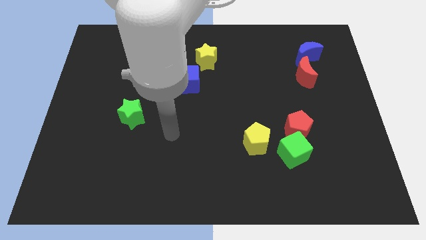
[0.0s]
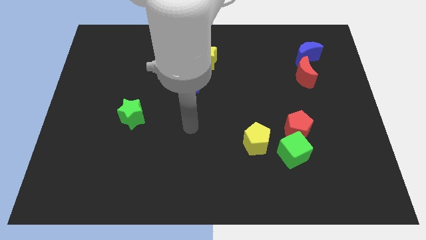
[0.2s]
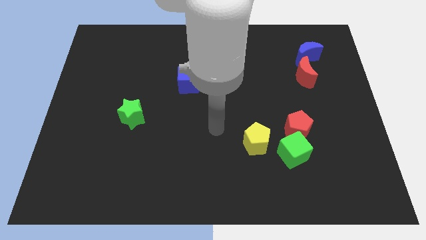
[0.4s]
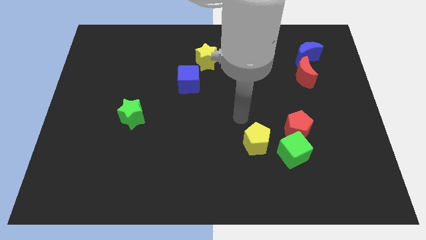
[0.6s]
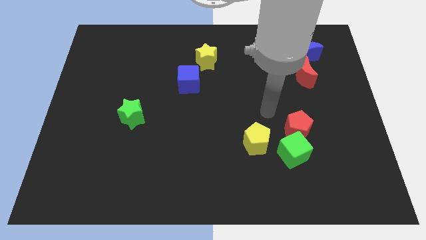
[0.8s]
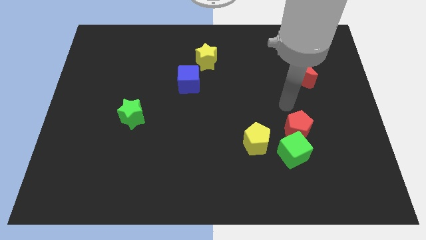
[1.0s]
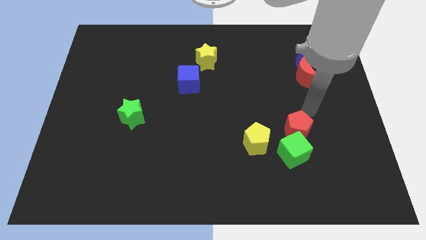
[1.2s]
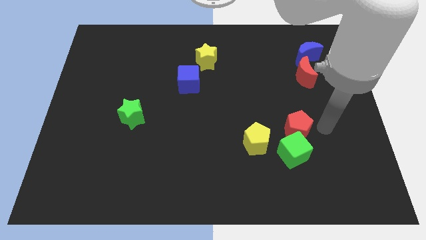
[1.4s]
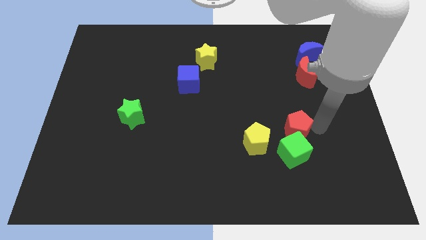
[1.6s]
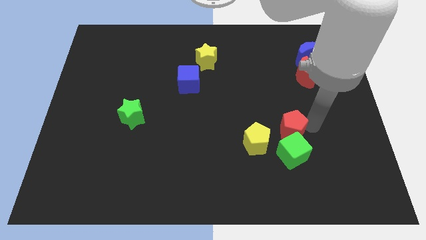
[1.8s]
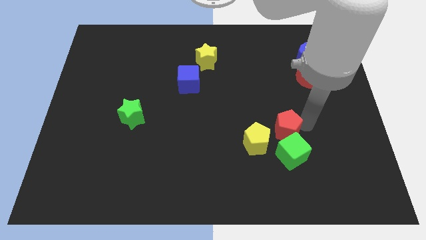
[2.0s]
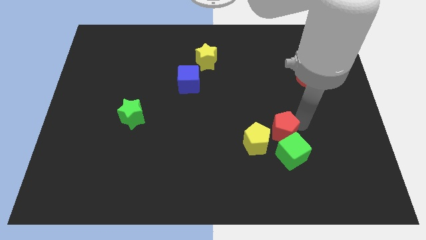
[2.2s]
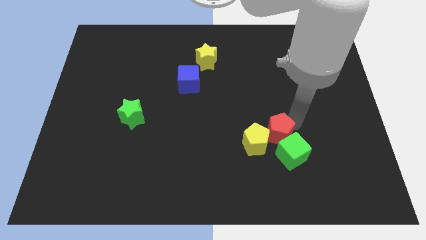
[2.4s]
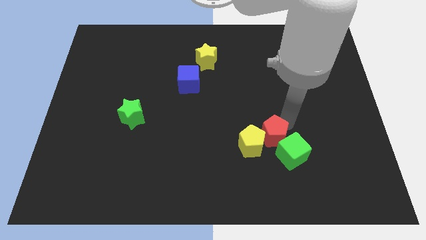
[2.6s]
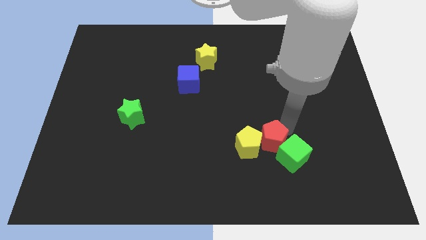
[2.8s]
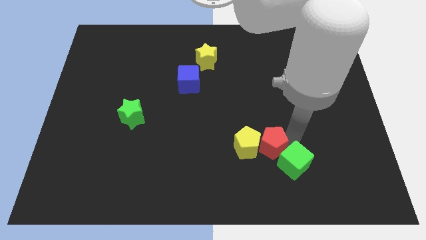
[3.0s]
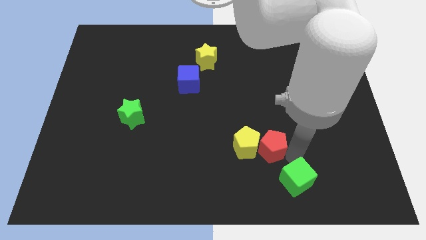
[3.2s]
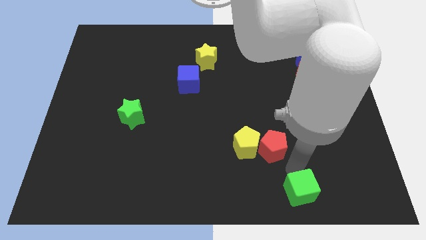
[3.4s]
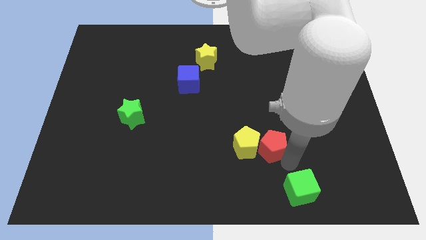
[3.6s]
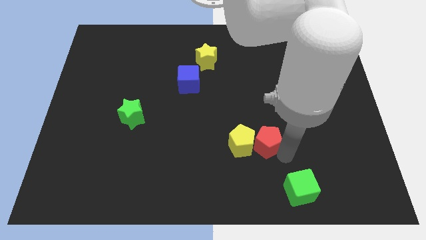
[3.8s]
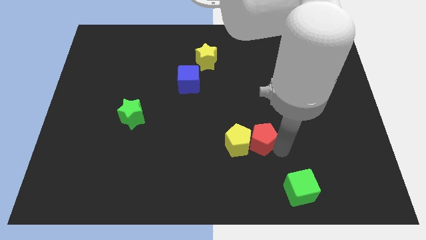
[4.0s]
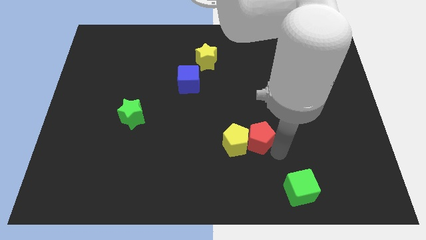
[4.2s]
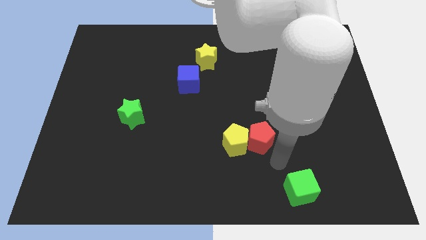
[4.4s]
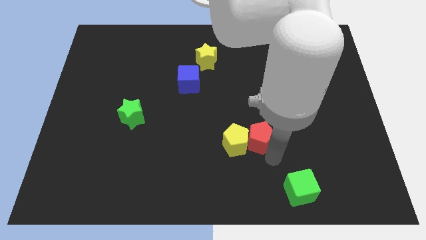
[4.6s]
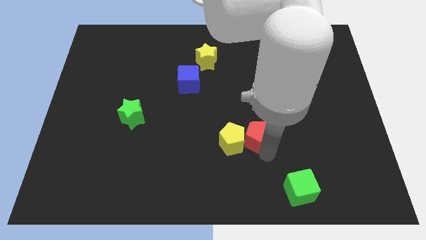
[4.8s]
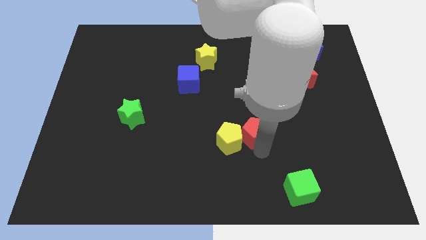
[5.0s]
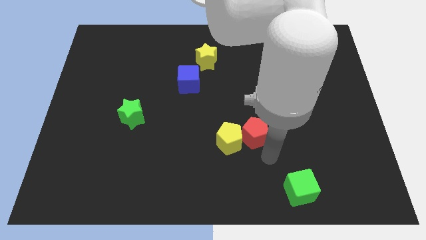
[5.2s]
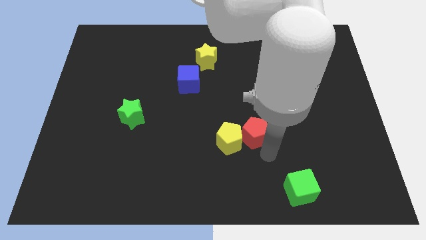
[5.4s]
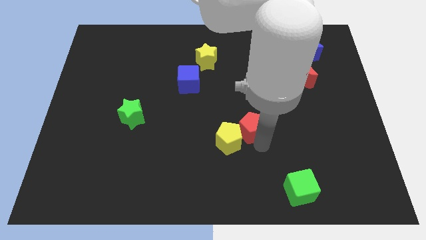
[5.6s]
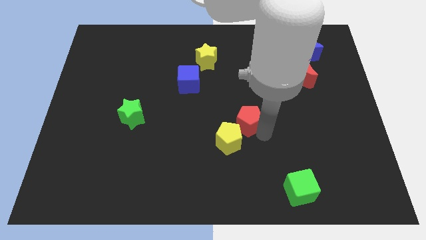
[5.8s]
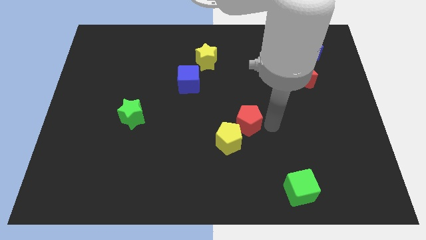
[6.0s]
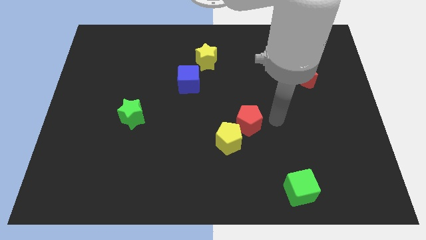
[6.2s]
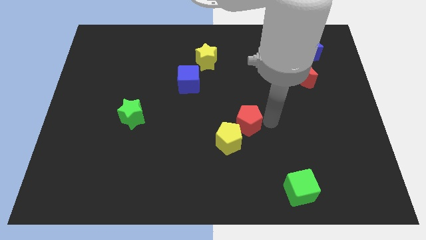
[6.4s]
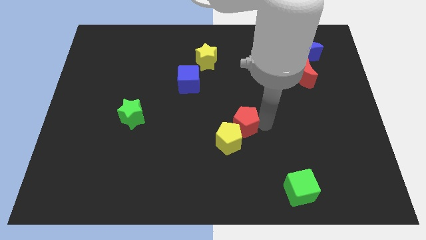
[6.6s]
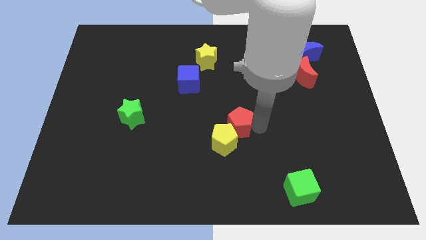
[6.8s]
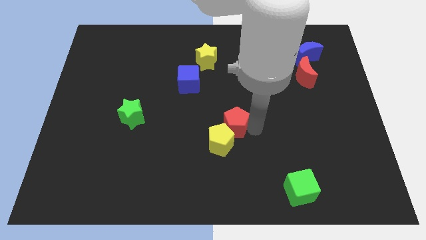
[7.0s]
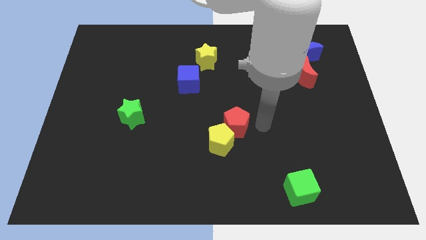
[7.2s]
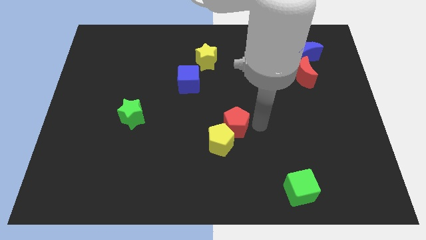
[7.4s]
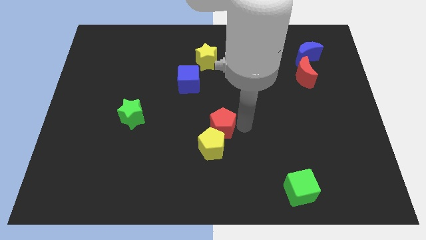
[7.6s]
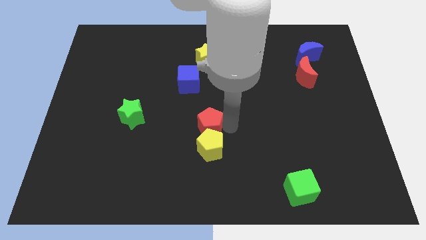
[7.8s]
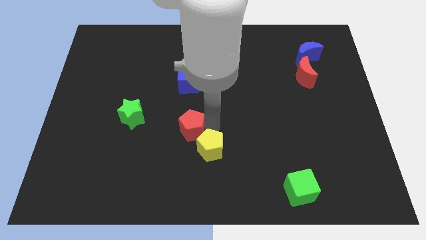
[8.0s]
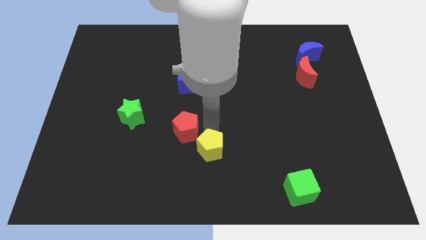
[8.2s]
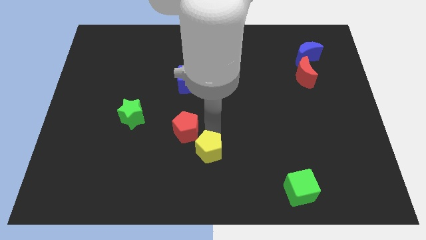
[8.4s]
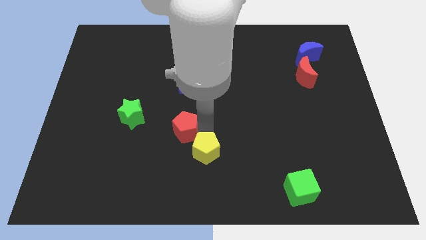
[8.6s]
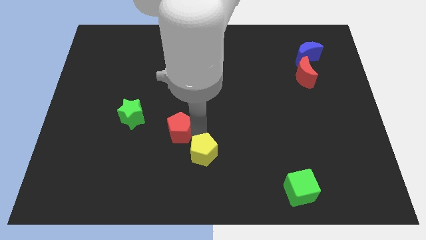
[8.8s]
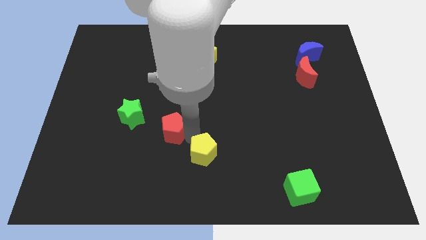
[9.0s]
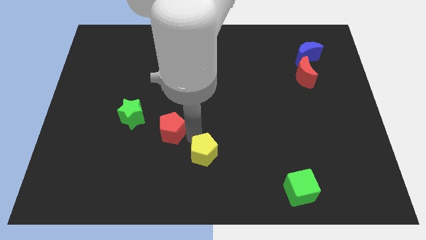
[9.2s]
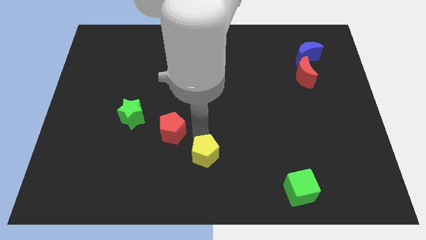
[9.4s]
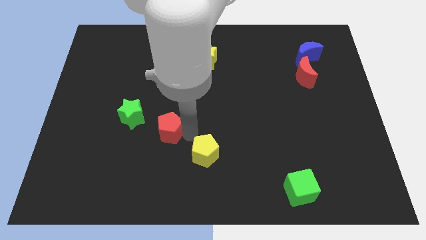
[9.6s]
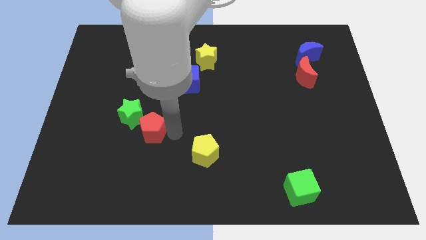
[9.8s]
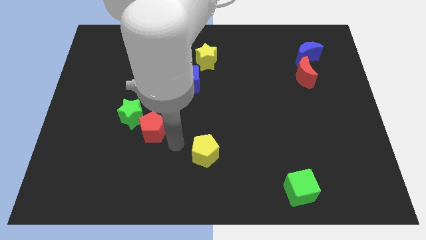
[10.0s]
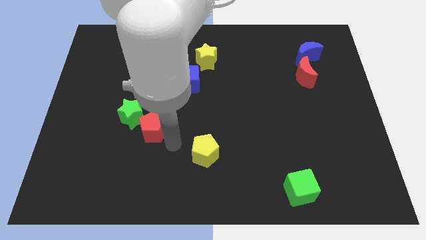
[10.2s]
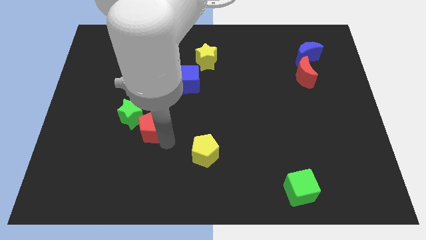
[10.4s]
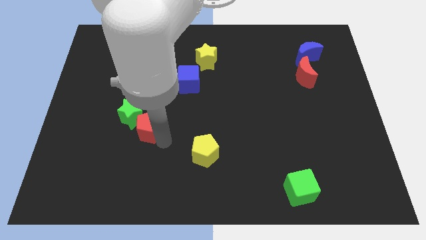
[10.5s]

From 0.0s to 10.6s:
move the red pentagon to the green star

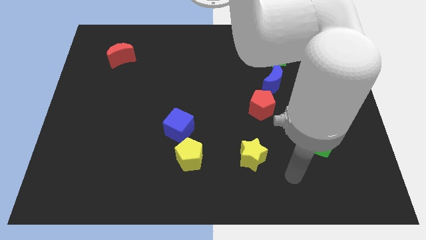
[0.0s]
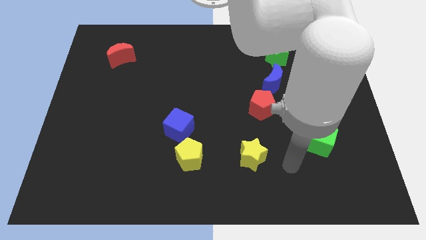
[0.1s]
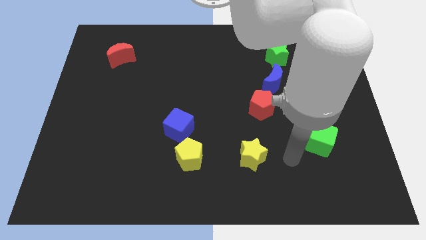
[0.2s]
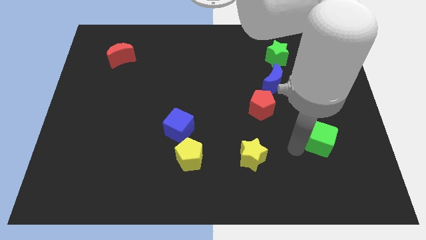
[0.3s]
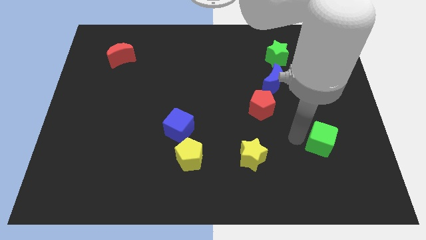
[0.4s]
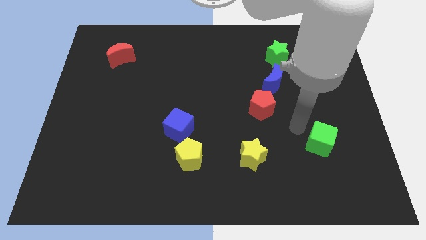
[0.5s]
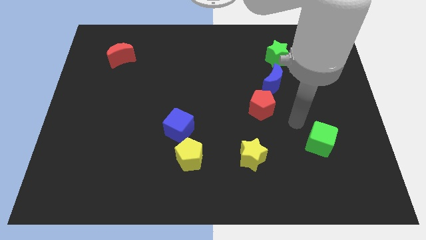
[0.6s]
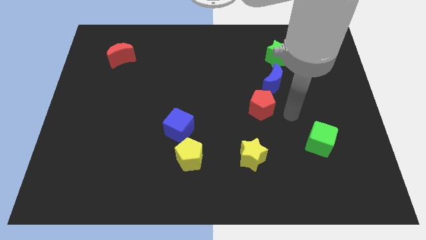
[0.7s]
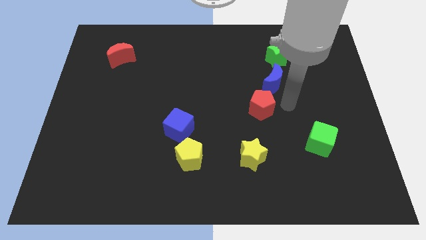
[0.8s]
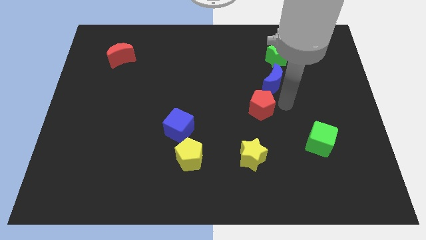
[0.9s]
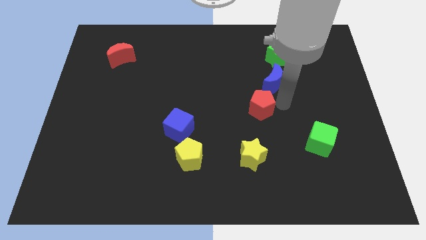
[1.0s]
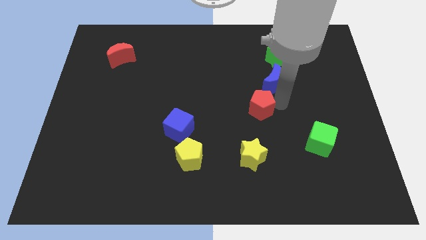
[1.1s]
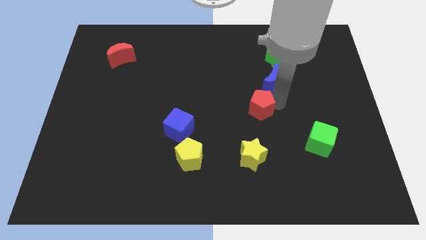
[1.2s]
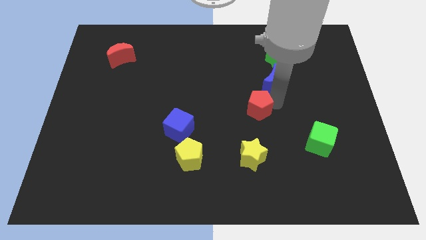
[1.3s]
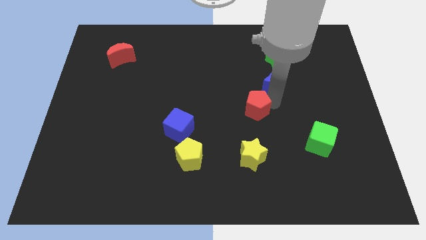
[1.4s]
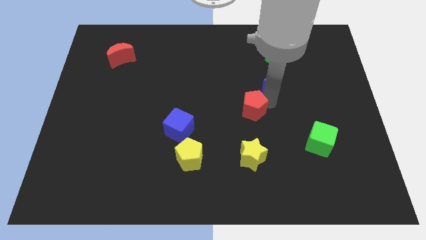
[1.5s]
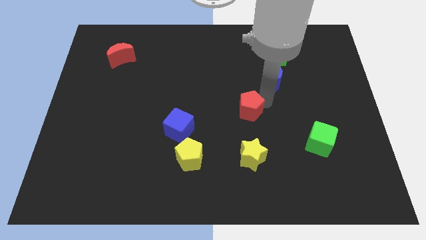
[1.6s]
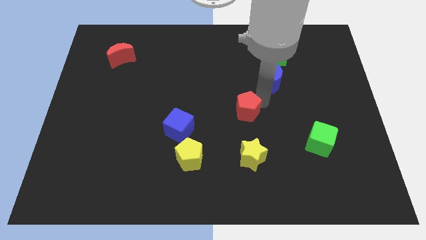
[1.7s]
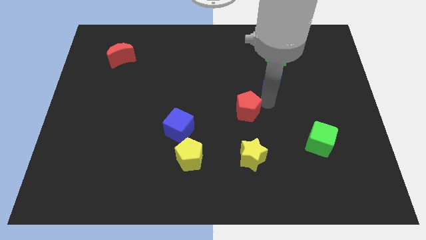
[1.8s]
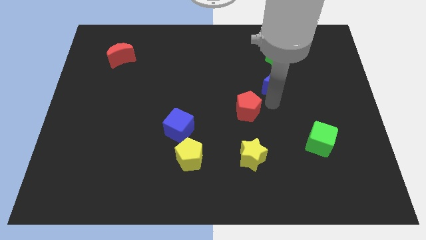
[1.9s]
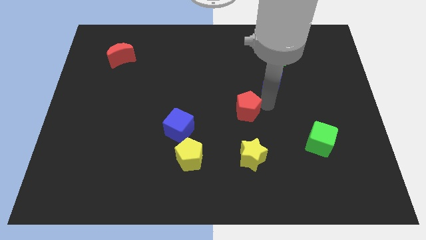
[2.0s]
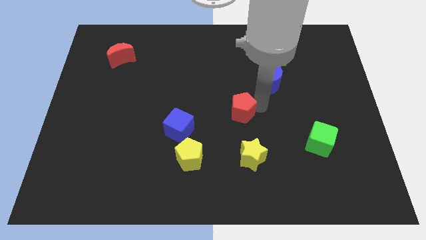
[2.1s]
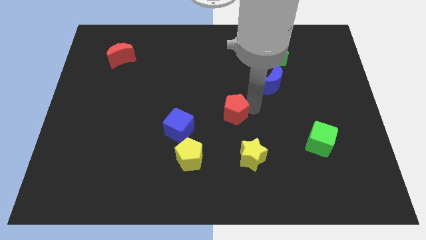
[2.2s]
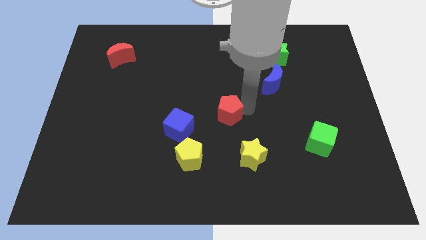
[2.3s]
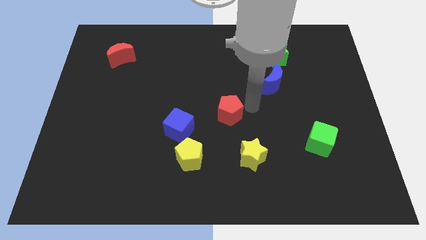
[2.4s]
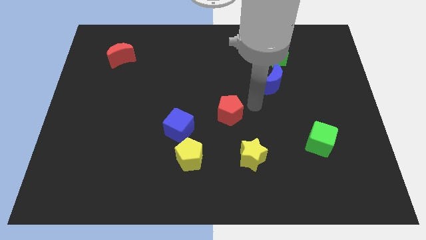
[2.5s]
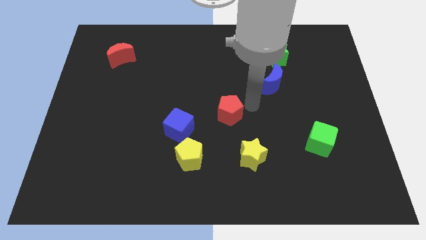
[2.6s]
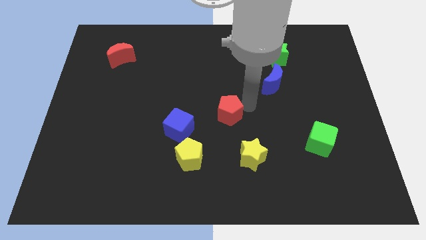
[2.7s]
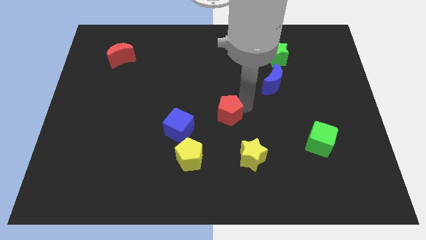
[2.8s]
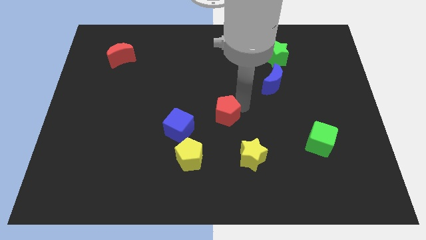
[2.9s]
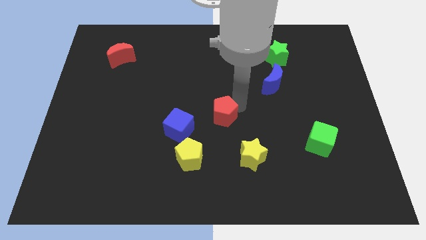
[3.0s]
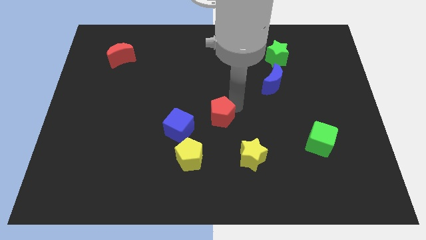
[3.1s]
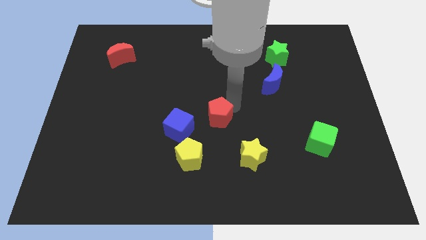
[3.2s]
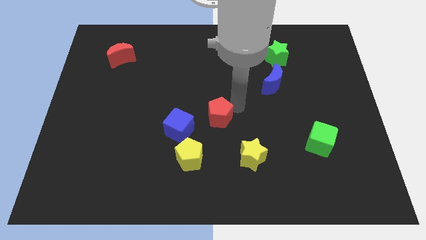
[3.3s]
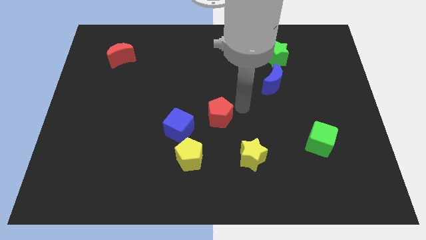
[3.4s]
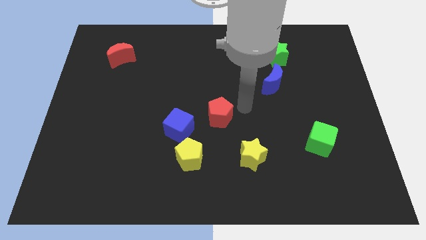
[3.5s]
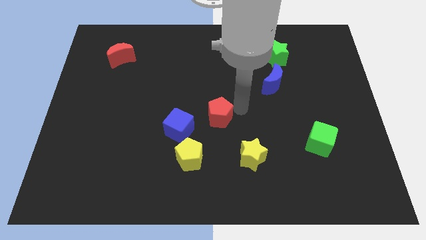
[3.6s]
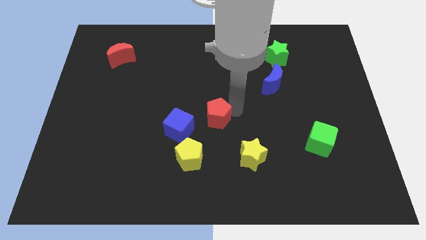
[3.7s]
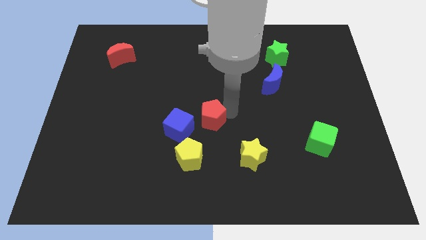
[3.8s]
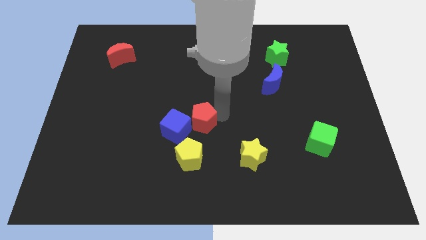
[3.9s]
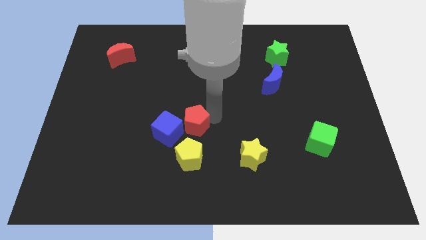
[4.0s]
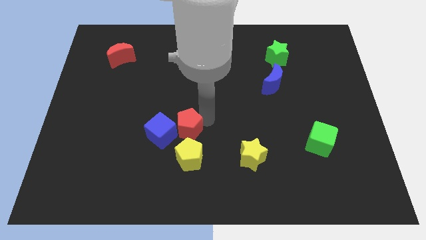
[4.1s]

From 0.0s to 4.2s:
push the red pentagon close to the blue cube
